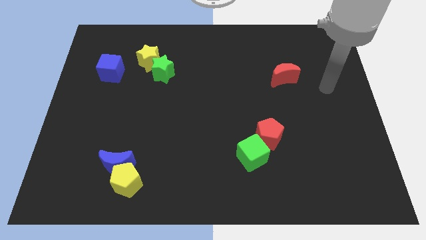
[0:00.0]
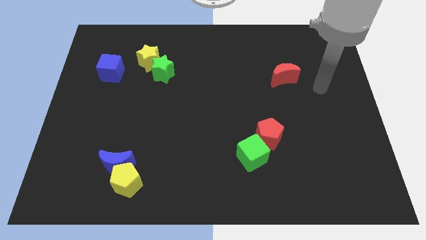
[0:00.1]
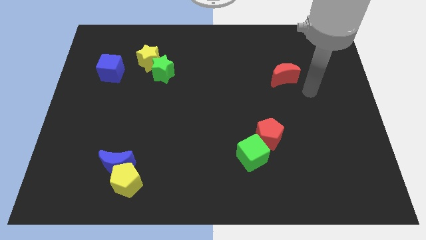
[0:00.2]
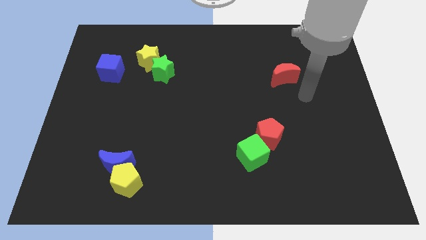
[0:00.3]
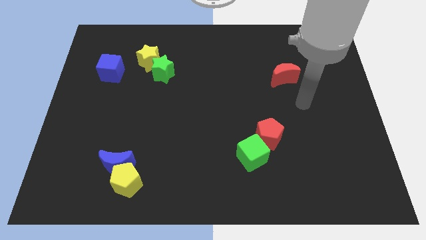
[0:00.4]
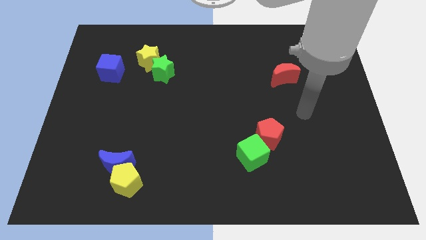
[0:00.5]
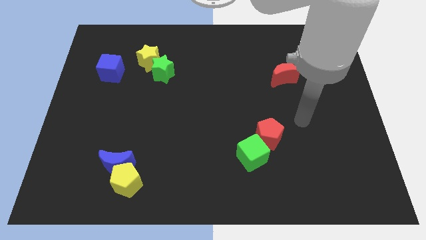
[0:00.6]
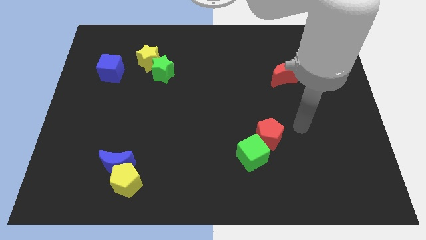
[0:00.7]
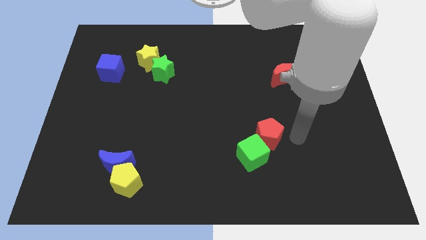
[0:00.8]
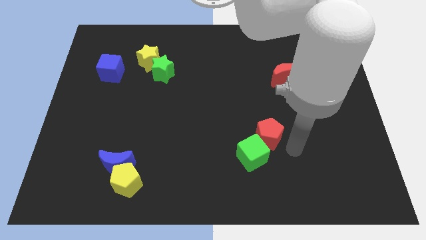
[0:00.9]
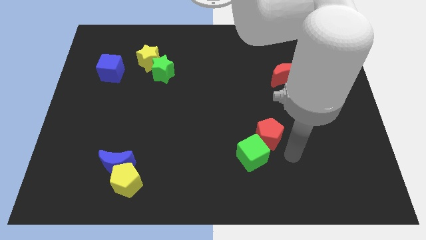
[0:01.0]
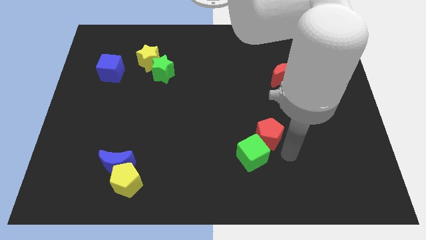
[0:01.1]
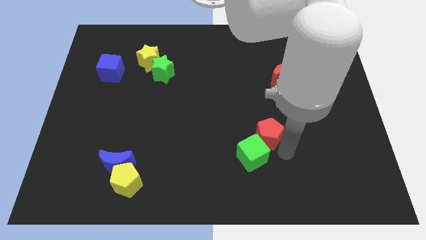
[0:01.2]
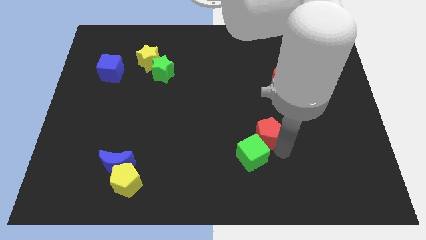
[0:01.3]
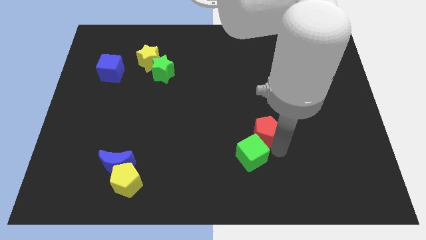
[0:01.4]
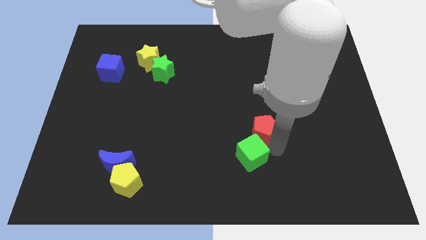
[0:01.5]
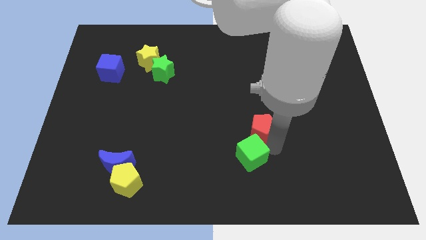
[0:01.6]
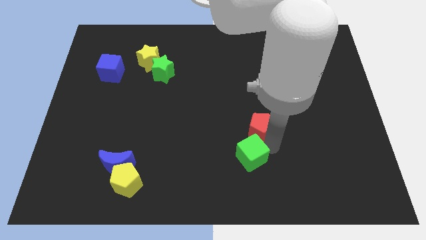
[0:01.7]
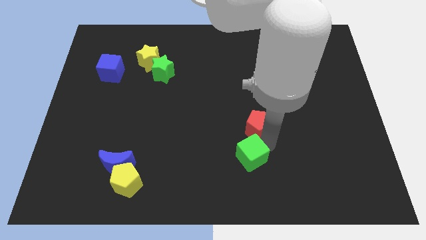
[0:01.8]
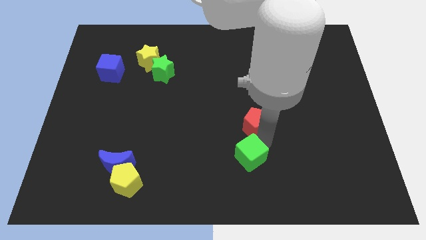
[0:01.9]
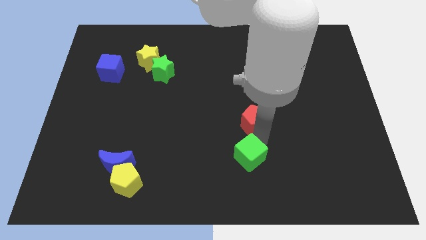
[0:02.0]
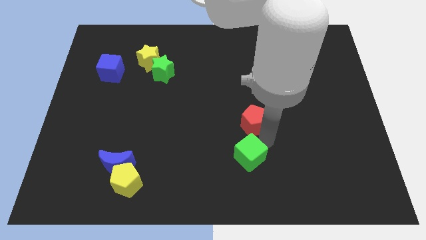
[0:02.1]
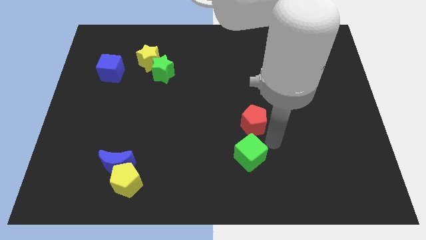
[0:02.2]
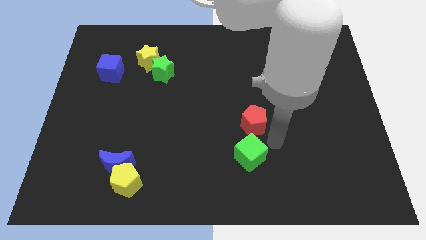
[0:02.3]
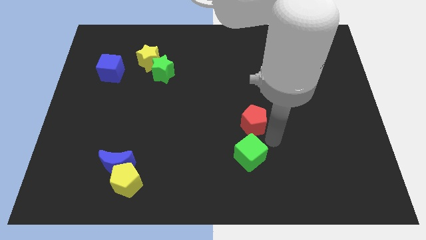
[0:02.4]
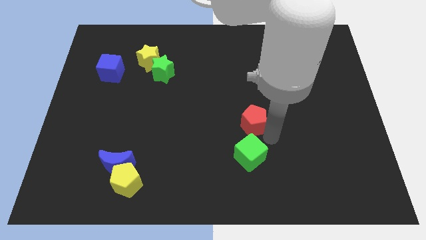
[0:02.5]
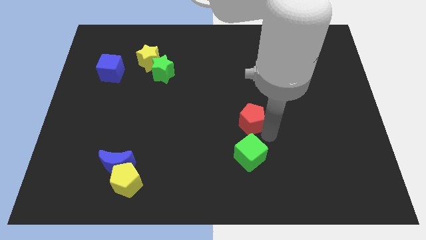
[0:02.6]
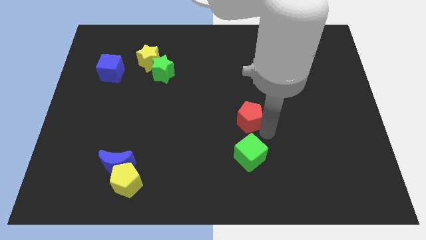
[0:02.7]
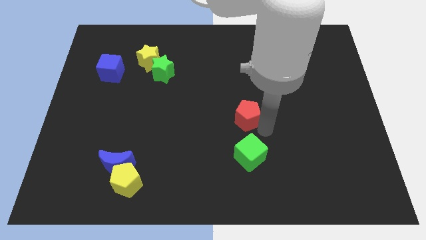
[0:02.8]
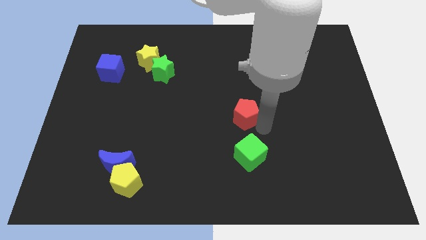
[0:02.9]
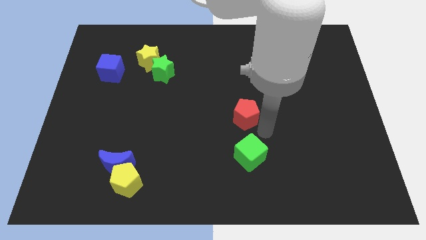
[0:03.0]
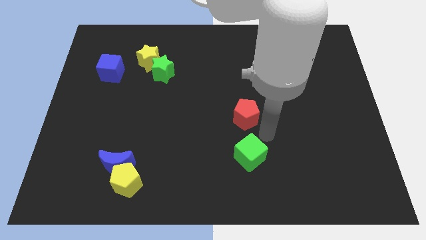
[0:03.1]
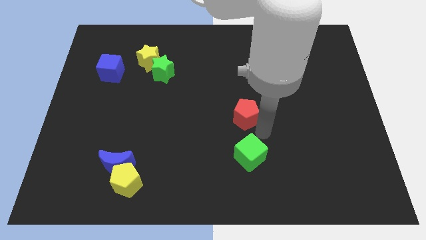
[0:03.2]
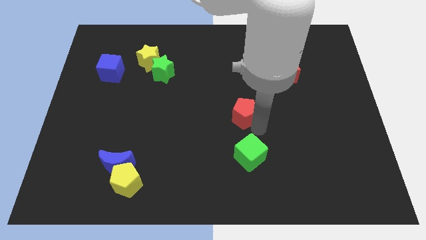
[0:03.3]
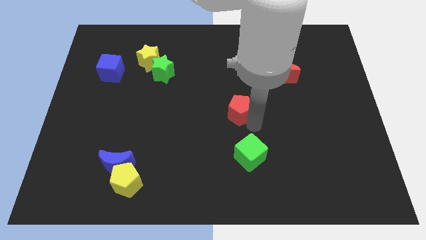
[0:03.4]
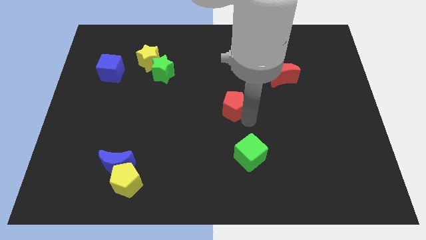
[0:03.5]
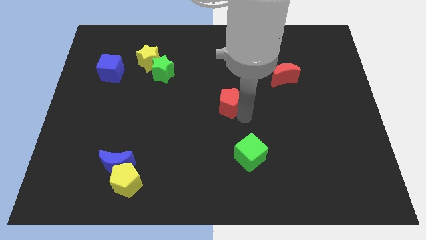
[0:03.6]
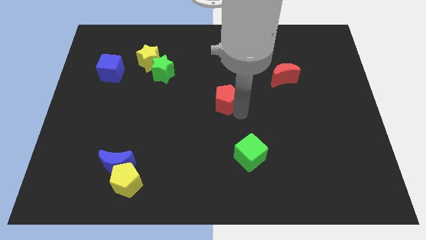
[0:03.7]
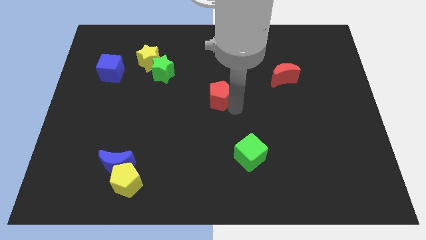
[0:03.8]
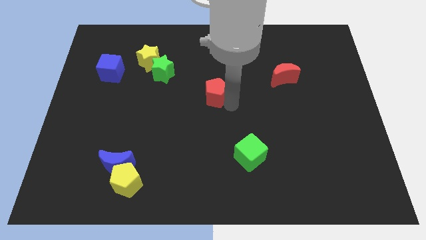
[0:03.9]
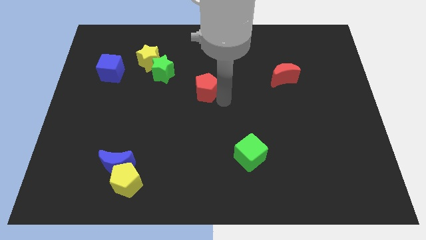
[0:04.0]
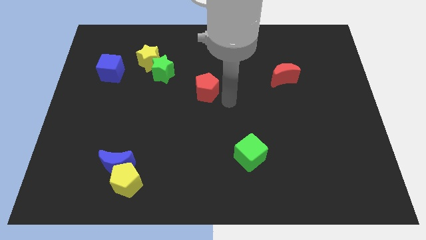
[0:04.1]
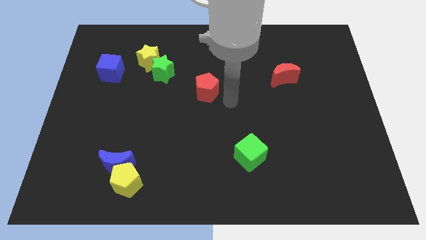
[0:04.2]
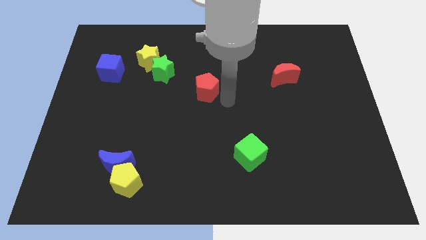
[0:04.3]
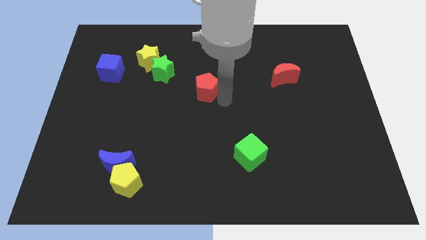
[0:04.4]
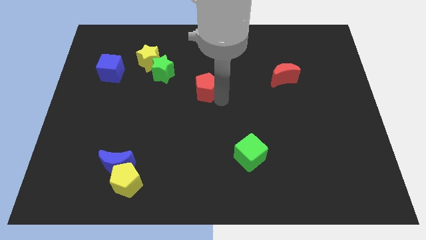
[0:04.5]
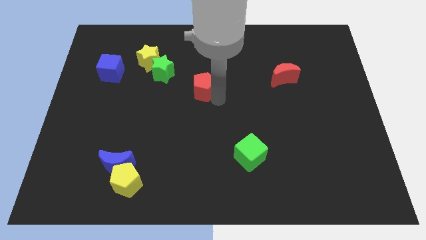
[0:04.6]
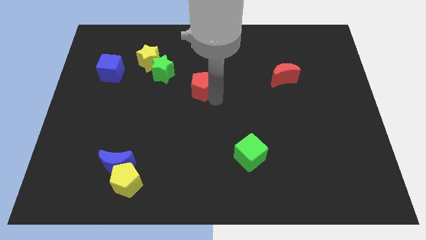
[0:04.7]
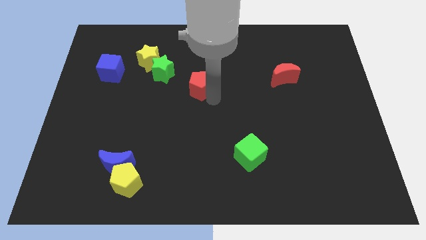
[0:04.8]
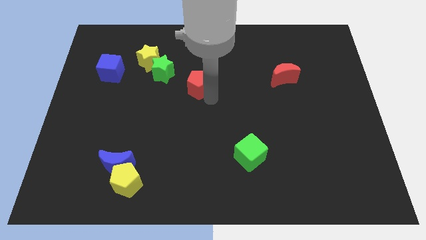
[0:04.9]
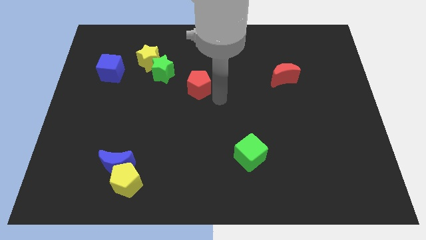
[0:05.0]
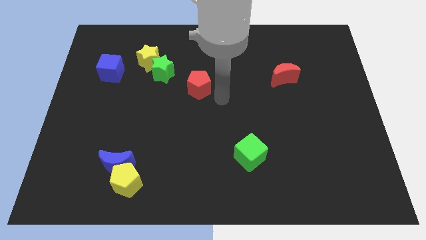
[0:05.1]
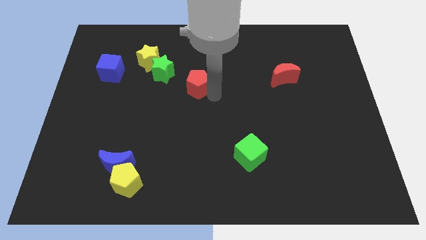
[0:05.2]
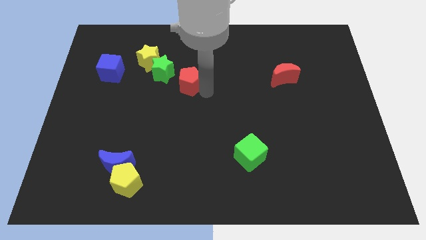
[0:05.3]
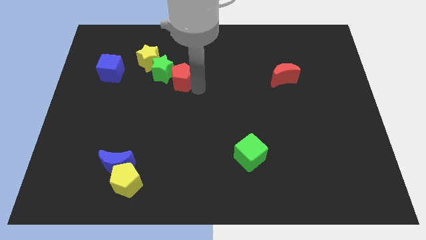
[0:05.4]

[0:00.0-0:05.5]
push the red pentagon towards the green star

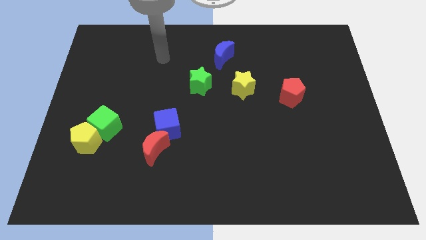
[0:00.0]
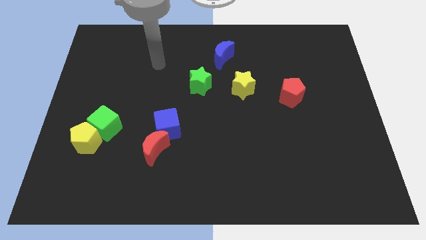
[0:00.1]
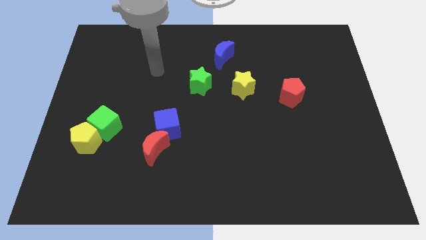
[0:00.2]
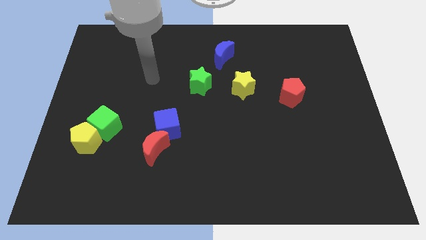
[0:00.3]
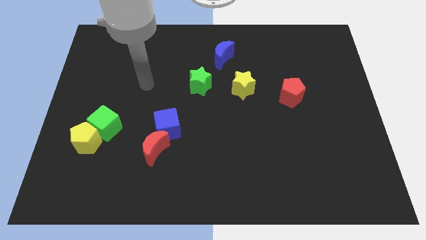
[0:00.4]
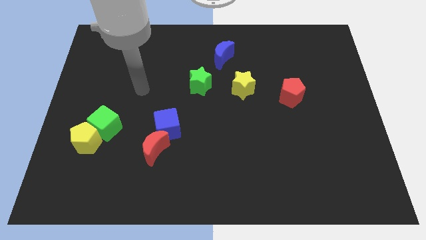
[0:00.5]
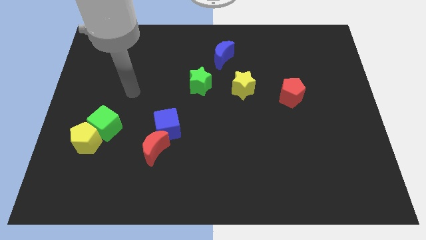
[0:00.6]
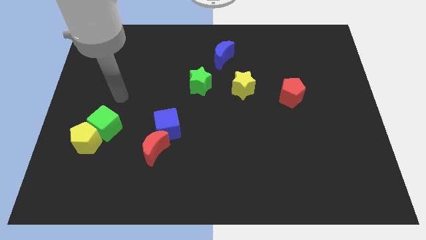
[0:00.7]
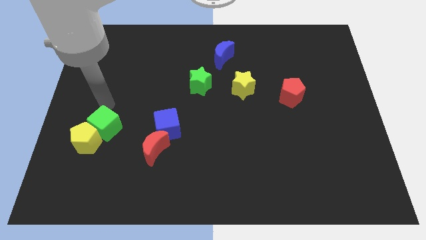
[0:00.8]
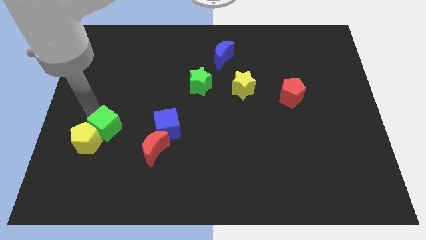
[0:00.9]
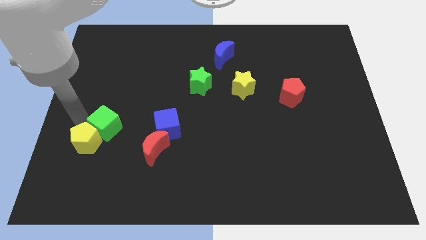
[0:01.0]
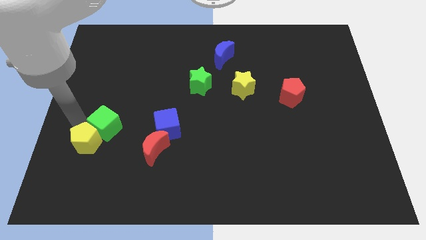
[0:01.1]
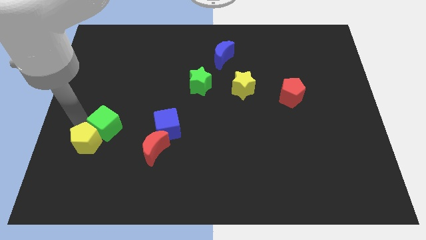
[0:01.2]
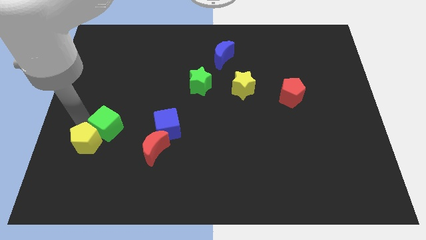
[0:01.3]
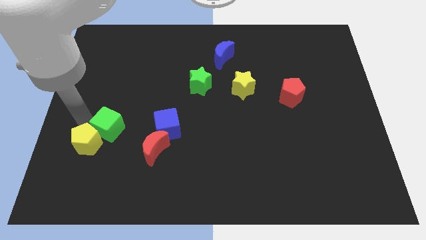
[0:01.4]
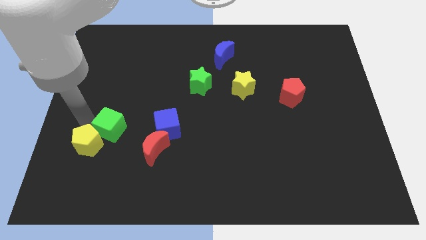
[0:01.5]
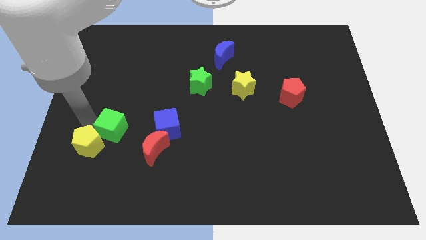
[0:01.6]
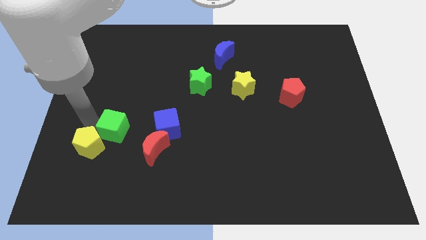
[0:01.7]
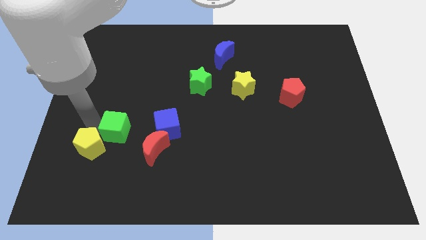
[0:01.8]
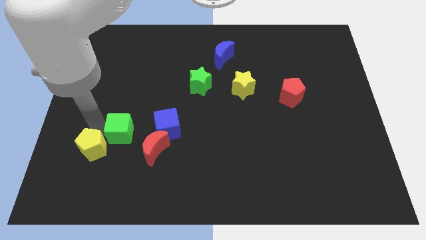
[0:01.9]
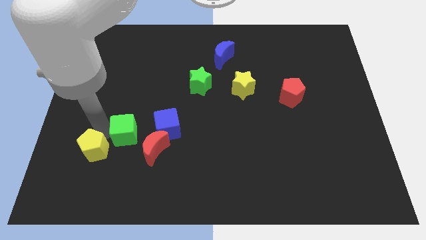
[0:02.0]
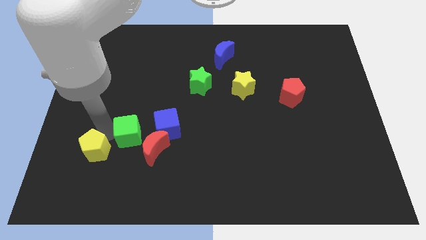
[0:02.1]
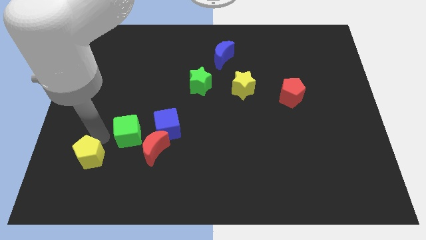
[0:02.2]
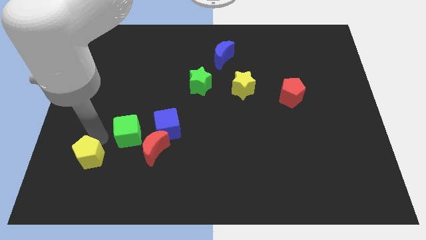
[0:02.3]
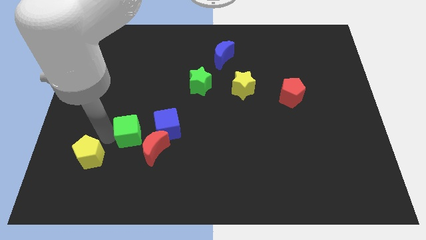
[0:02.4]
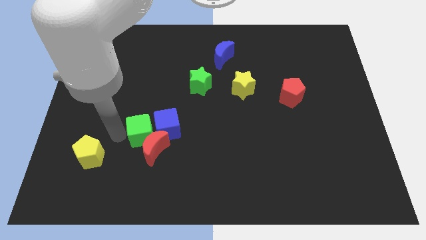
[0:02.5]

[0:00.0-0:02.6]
move the green cube next to the blue cube

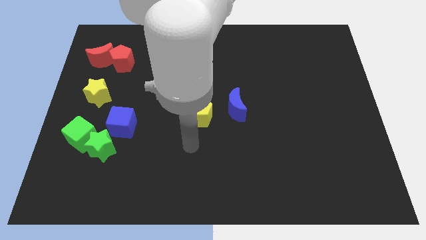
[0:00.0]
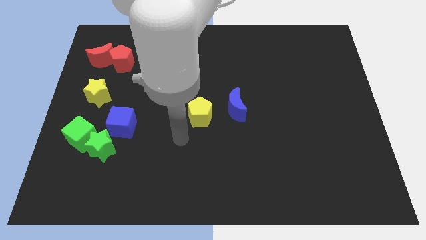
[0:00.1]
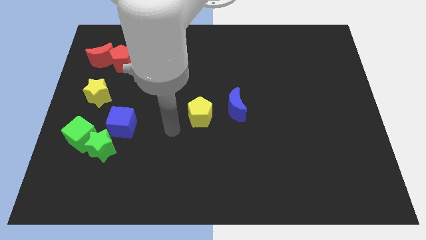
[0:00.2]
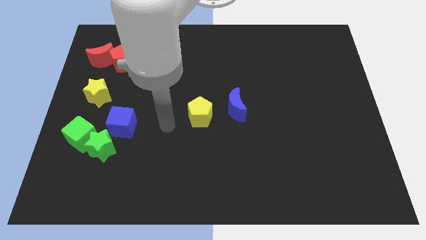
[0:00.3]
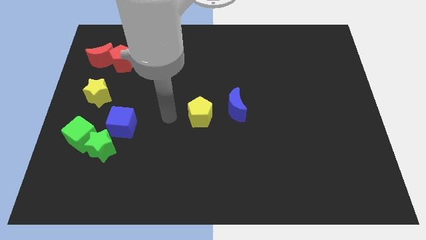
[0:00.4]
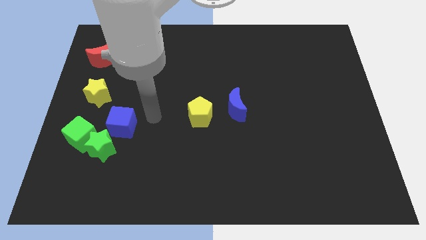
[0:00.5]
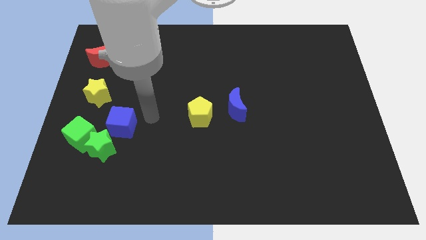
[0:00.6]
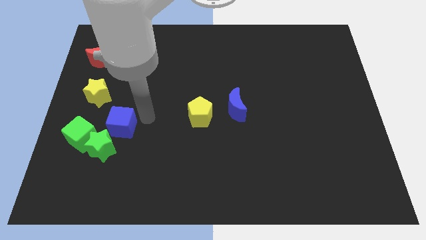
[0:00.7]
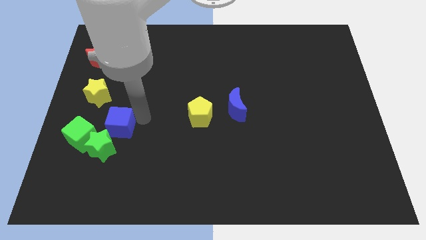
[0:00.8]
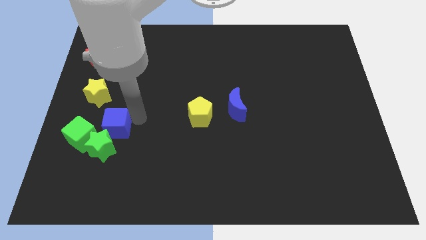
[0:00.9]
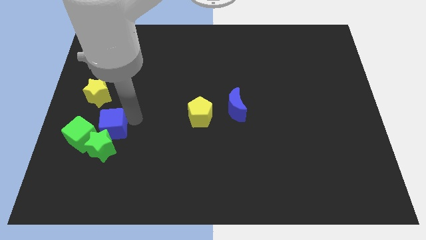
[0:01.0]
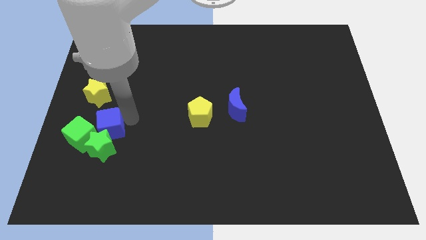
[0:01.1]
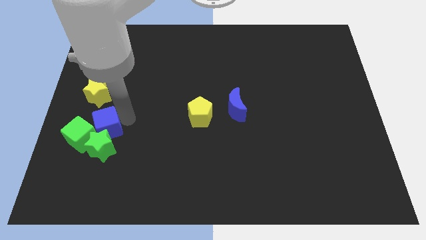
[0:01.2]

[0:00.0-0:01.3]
move the blue cube towards the green cube
